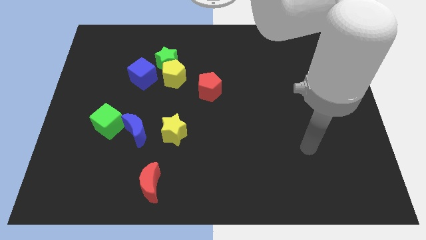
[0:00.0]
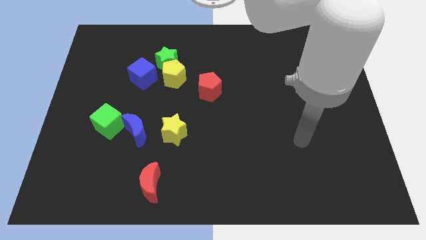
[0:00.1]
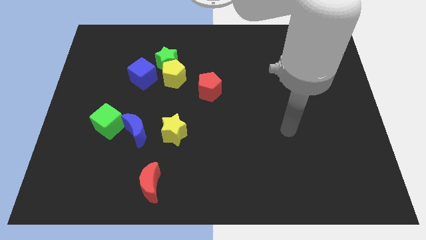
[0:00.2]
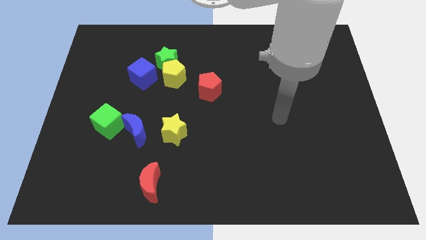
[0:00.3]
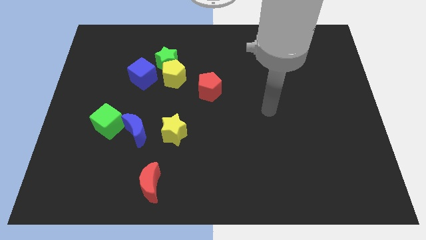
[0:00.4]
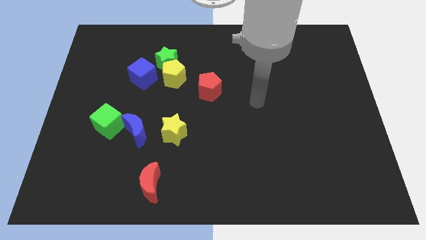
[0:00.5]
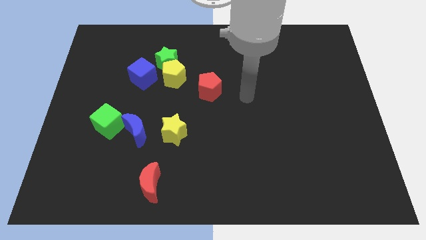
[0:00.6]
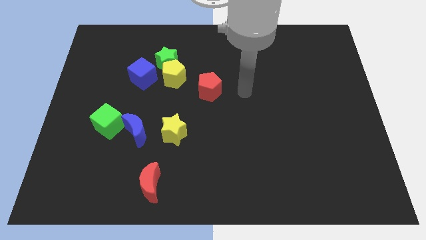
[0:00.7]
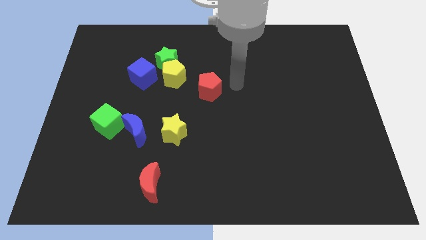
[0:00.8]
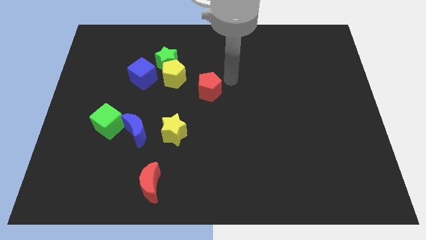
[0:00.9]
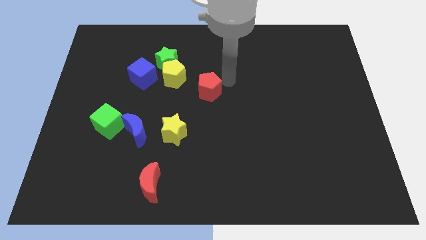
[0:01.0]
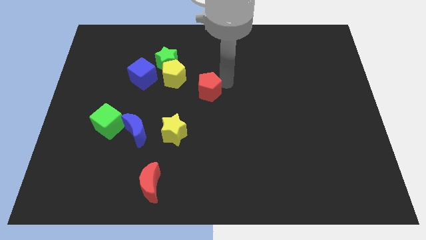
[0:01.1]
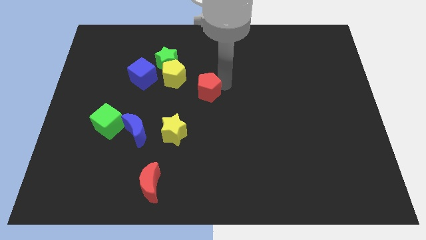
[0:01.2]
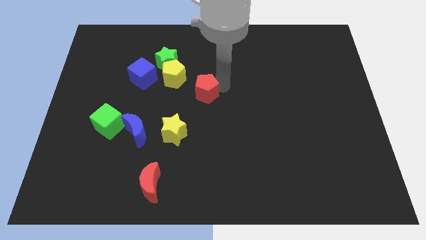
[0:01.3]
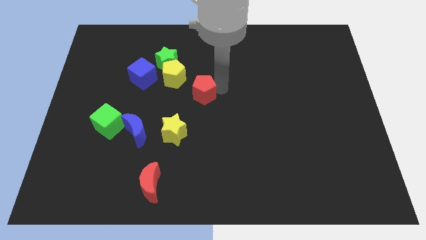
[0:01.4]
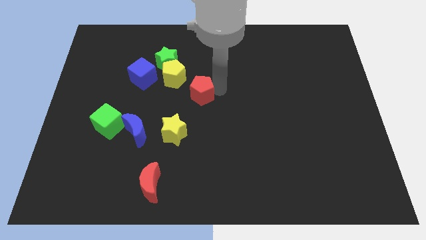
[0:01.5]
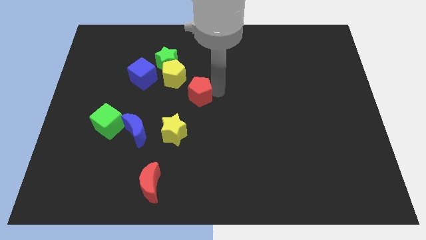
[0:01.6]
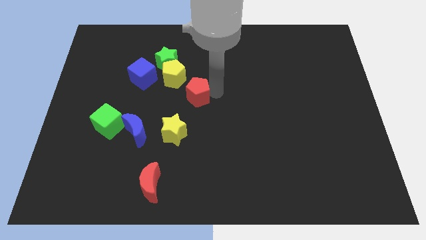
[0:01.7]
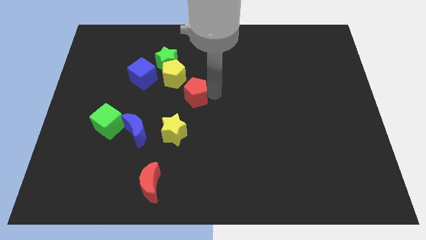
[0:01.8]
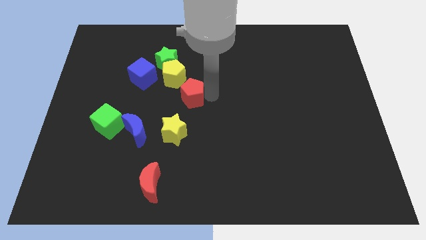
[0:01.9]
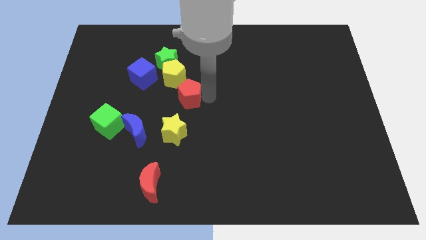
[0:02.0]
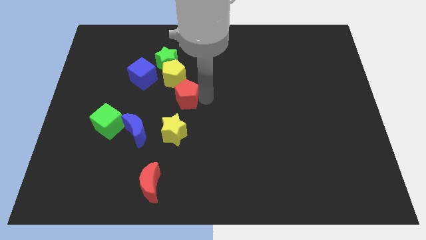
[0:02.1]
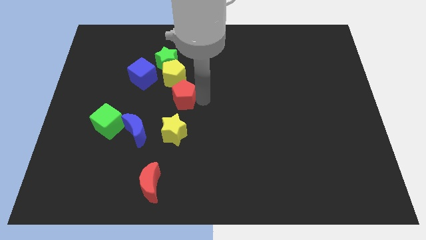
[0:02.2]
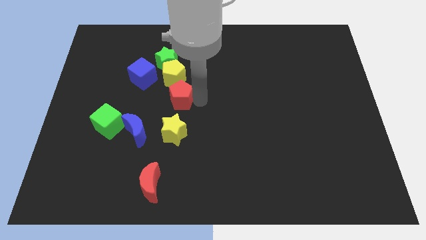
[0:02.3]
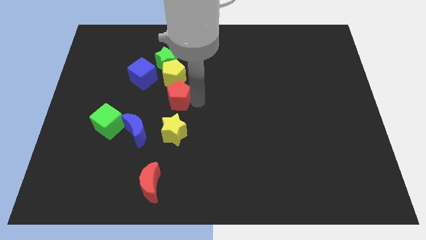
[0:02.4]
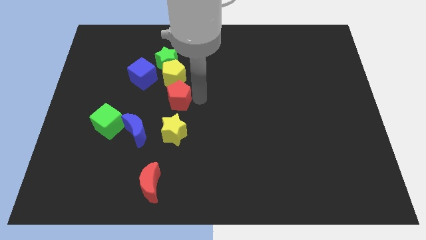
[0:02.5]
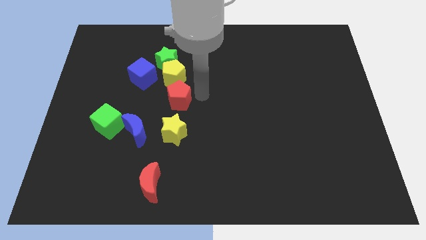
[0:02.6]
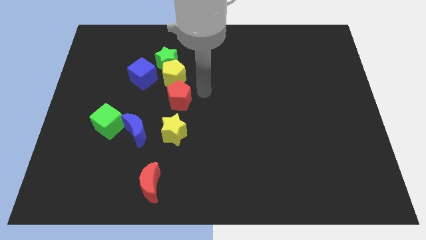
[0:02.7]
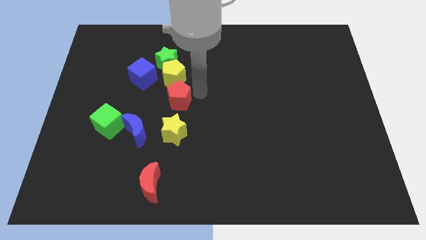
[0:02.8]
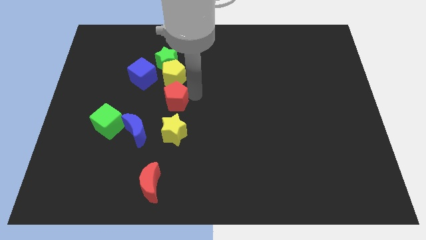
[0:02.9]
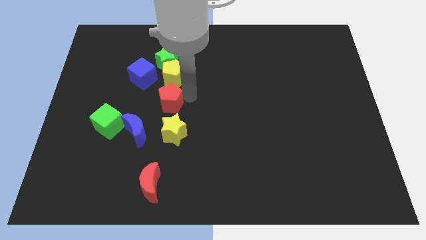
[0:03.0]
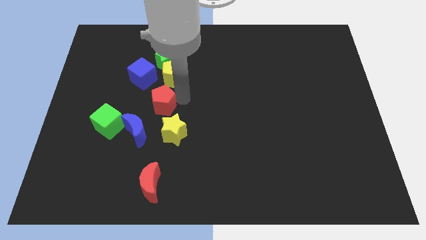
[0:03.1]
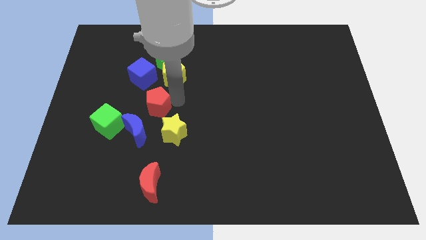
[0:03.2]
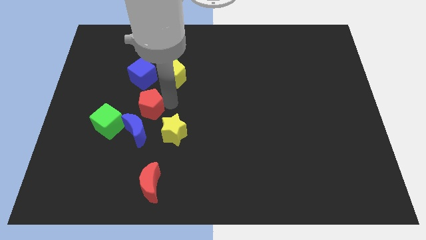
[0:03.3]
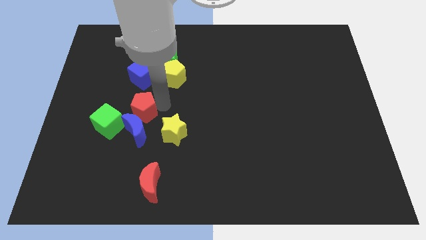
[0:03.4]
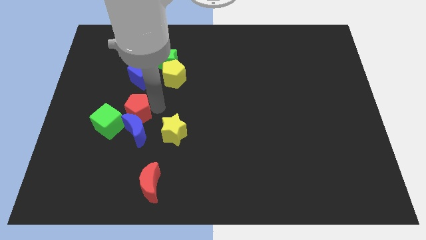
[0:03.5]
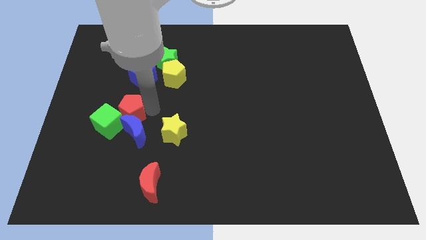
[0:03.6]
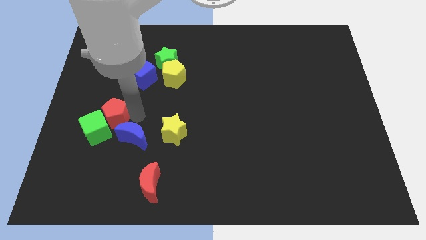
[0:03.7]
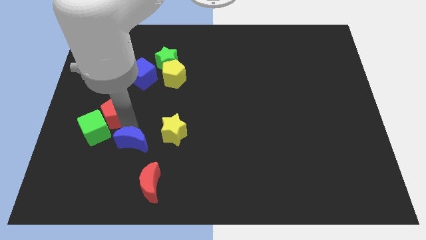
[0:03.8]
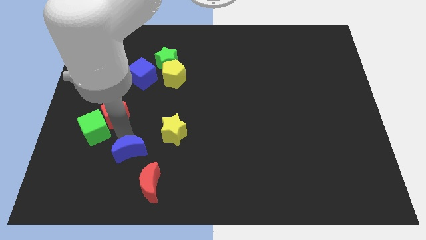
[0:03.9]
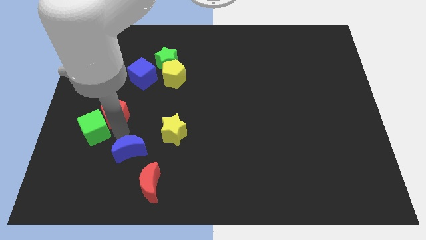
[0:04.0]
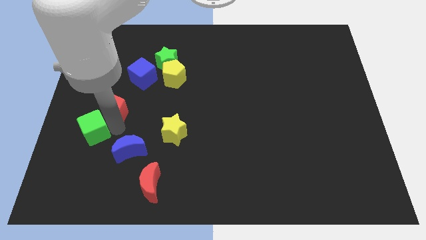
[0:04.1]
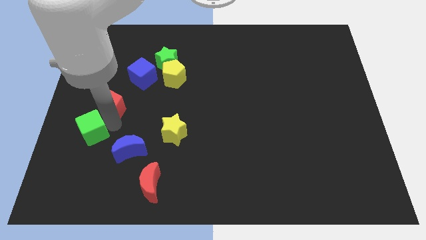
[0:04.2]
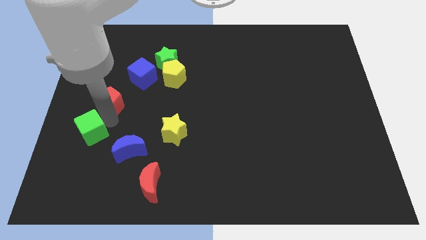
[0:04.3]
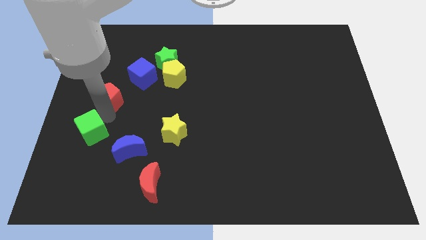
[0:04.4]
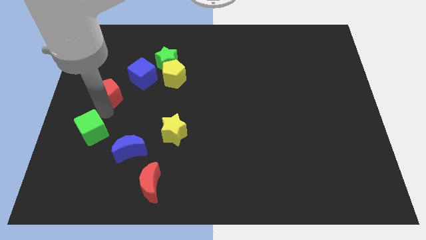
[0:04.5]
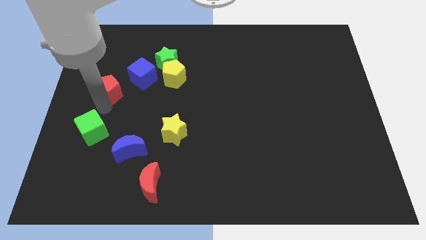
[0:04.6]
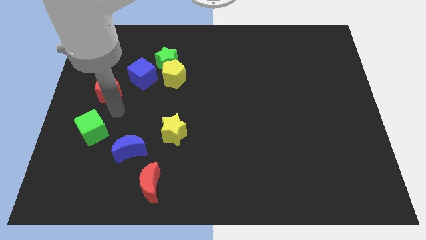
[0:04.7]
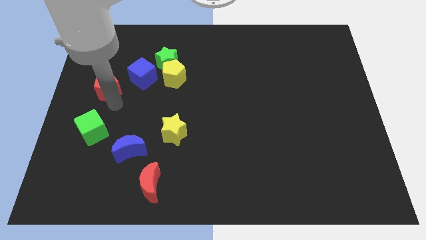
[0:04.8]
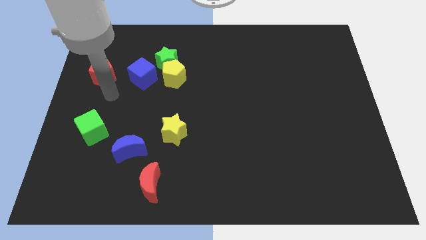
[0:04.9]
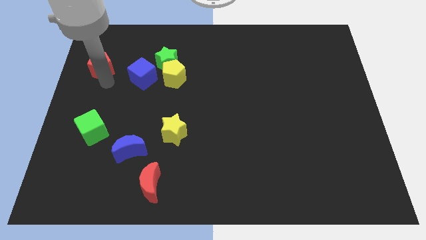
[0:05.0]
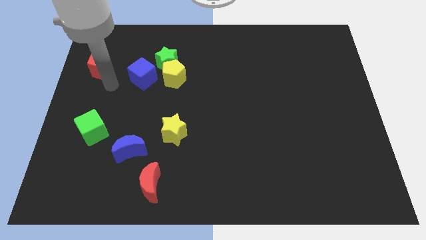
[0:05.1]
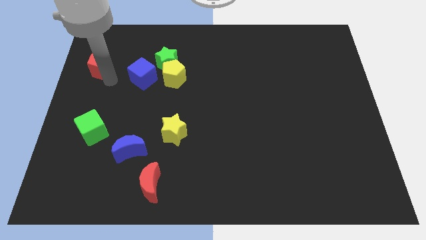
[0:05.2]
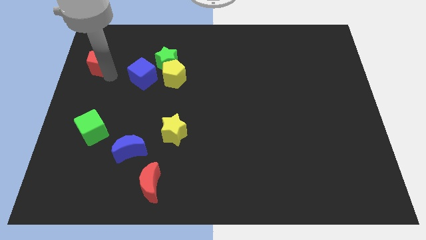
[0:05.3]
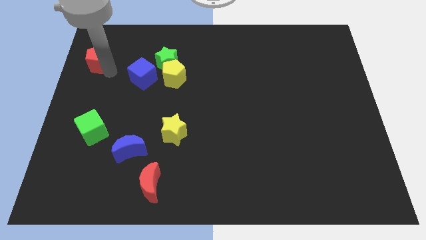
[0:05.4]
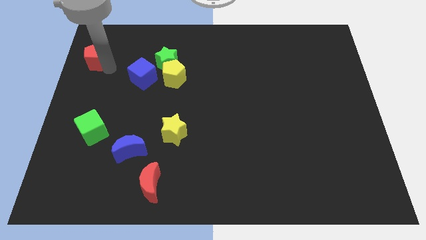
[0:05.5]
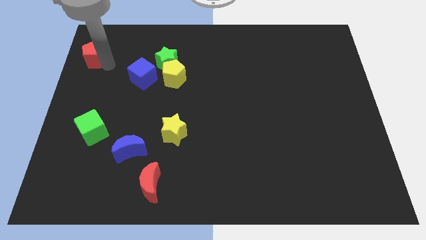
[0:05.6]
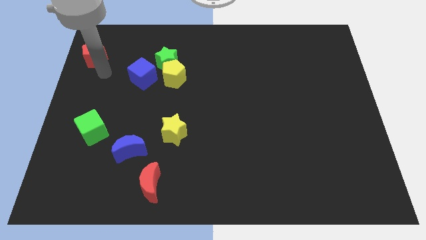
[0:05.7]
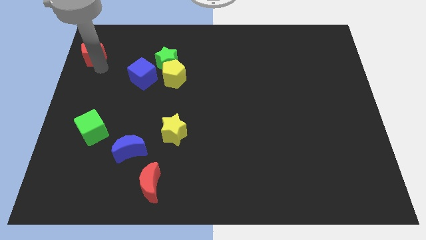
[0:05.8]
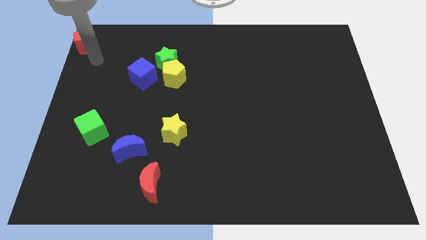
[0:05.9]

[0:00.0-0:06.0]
slide the red pentagon to the top left corner

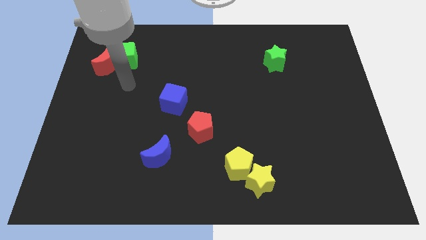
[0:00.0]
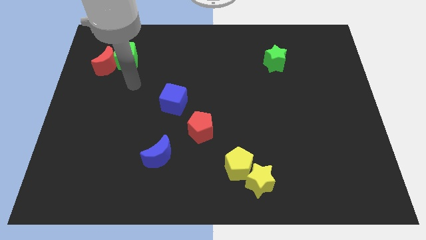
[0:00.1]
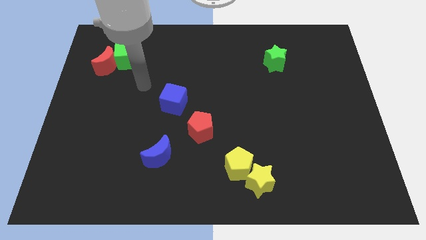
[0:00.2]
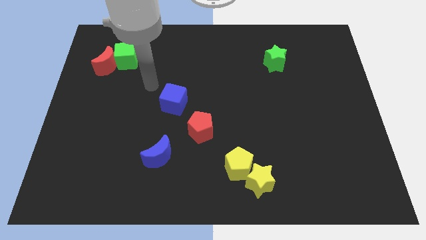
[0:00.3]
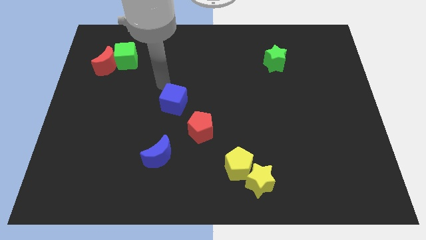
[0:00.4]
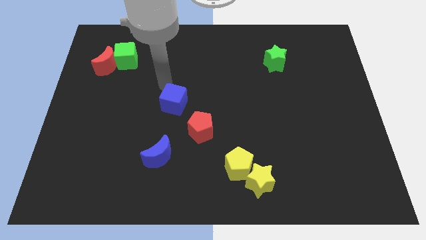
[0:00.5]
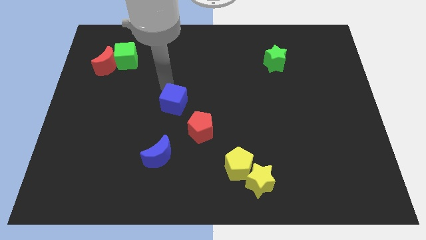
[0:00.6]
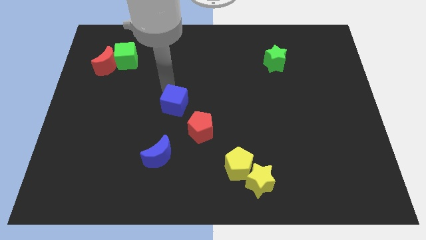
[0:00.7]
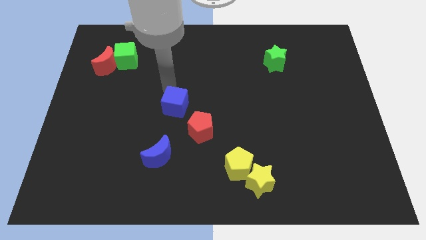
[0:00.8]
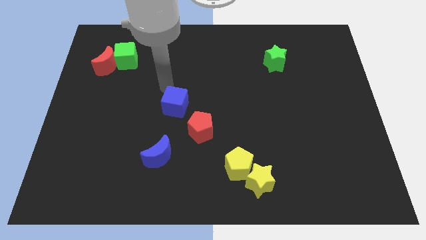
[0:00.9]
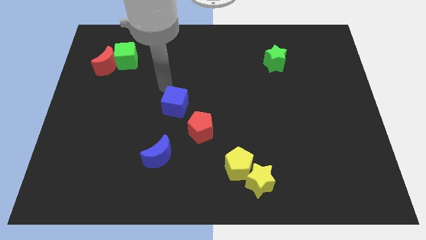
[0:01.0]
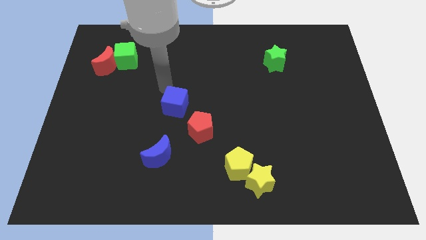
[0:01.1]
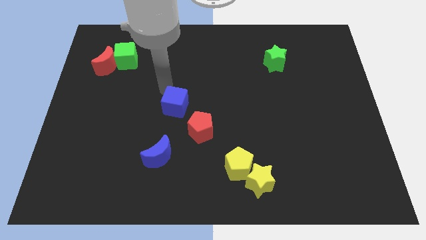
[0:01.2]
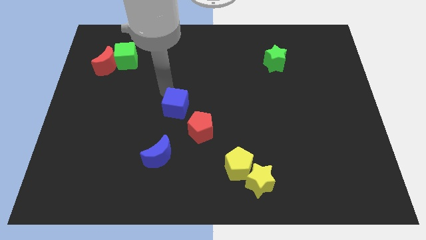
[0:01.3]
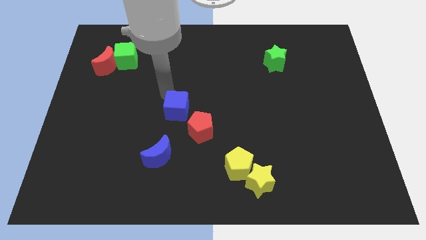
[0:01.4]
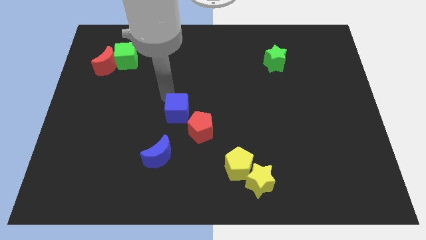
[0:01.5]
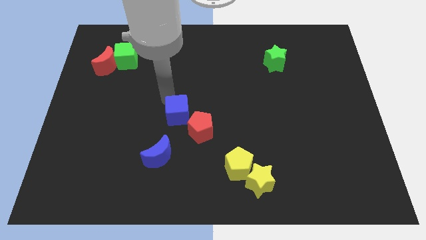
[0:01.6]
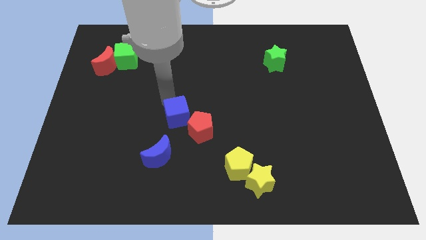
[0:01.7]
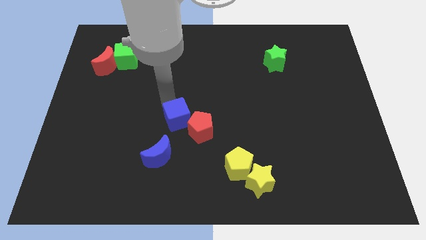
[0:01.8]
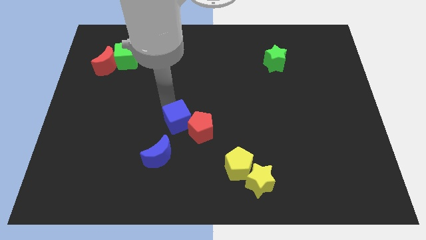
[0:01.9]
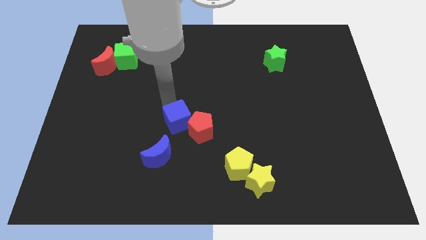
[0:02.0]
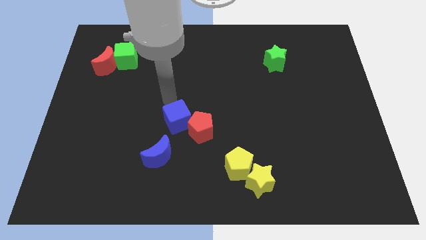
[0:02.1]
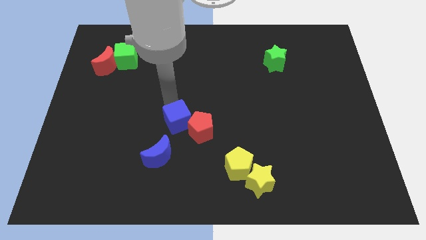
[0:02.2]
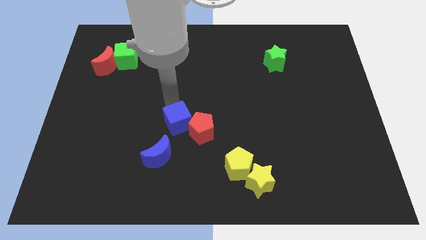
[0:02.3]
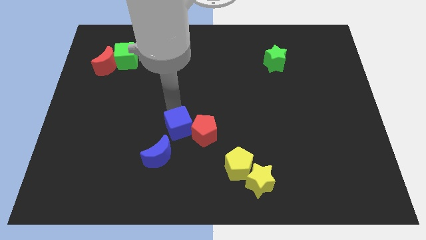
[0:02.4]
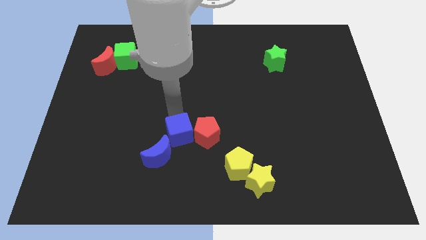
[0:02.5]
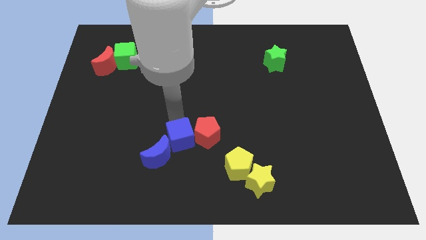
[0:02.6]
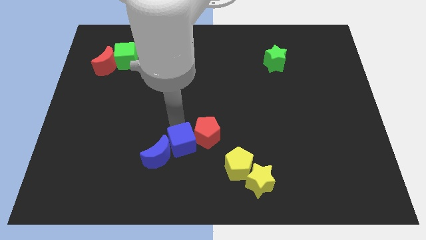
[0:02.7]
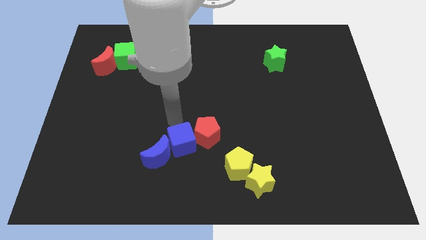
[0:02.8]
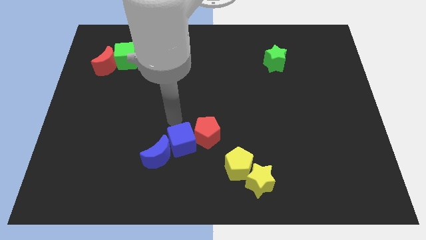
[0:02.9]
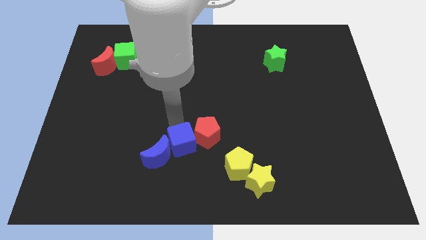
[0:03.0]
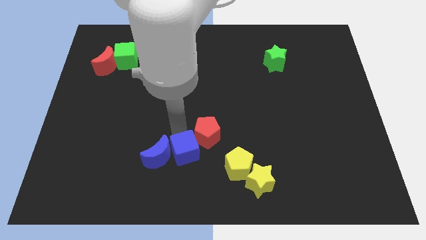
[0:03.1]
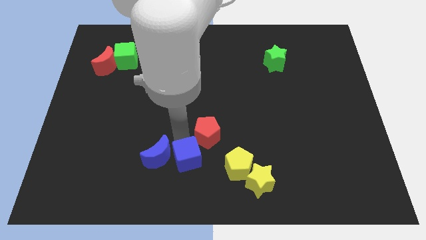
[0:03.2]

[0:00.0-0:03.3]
push the blue cube to the bottom side
